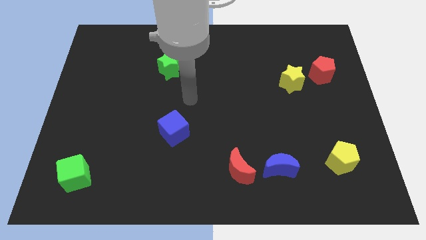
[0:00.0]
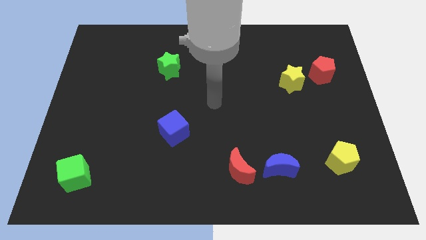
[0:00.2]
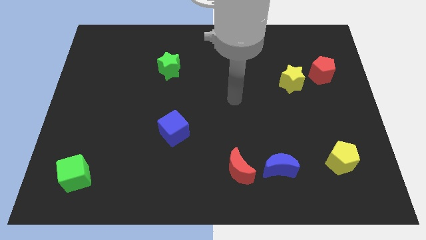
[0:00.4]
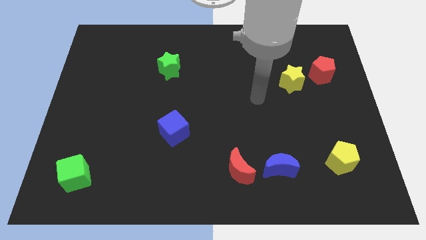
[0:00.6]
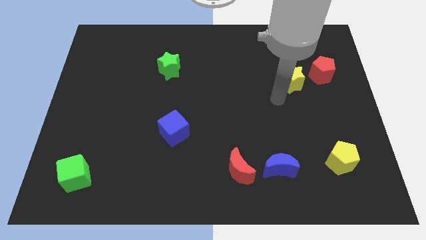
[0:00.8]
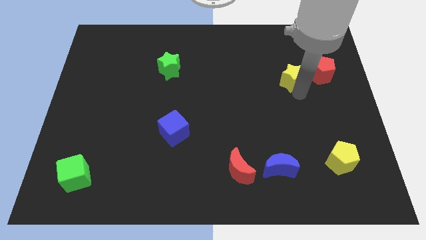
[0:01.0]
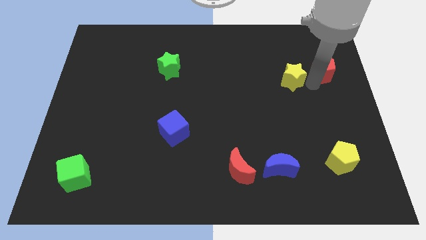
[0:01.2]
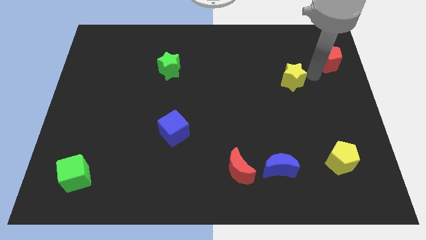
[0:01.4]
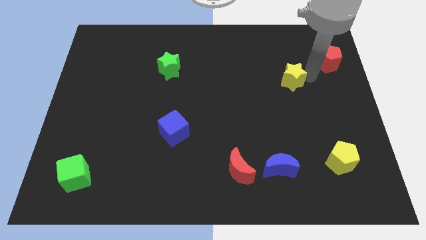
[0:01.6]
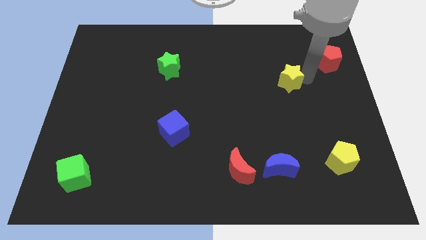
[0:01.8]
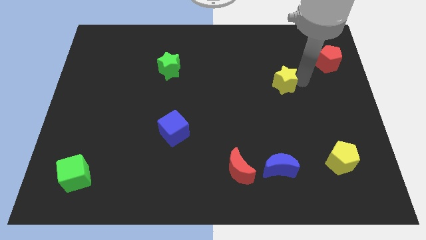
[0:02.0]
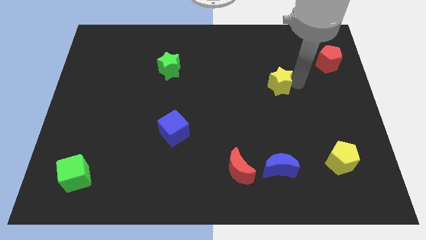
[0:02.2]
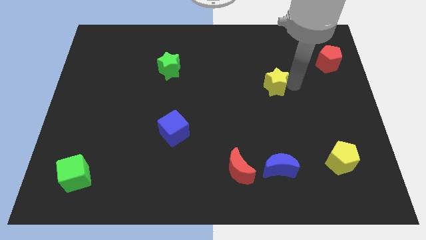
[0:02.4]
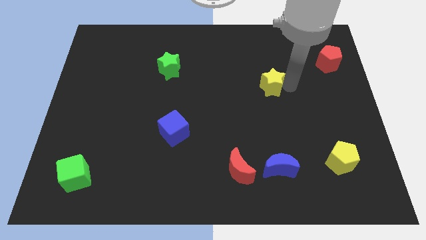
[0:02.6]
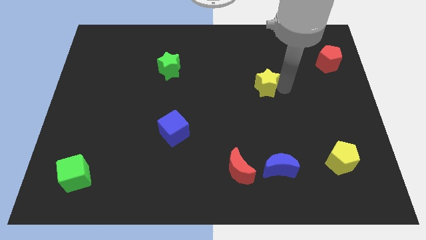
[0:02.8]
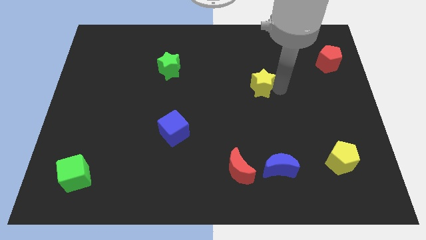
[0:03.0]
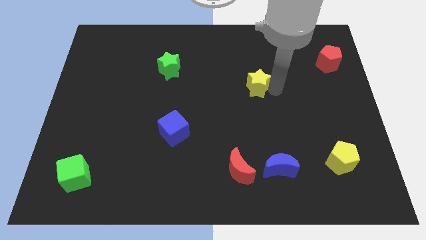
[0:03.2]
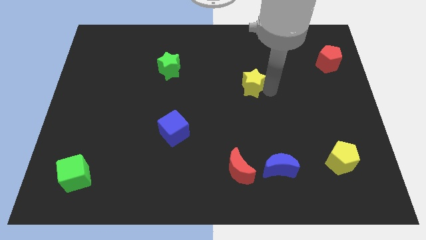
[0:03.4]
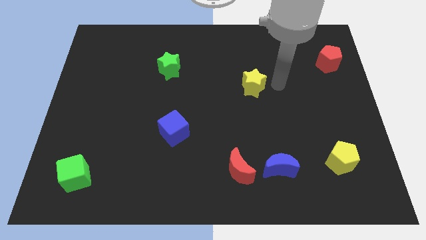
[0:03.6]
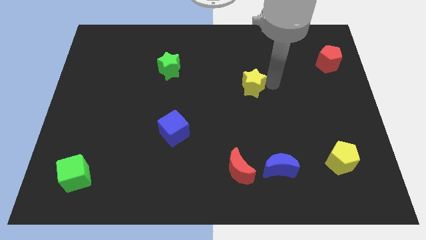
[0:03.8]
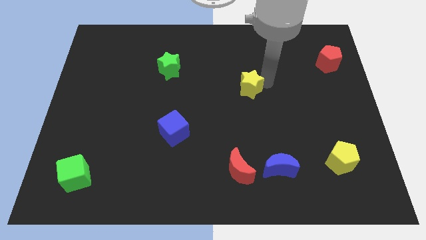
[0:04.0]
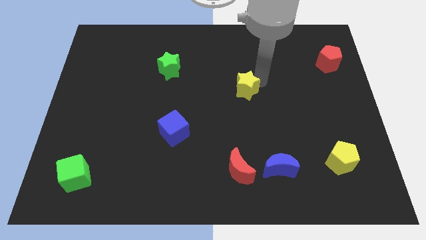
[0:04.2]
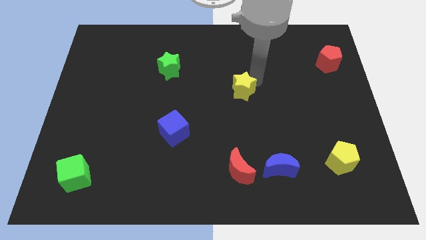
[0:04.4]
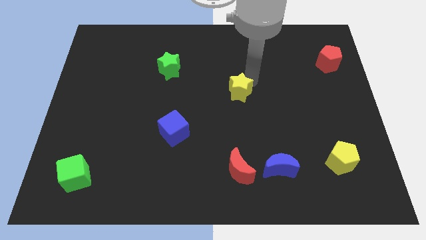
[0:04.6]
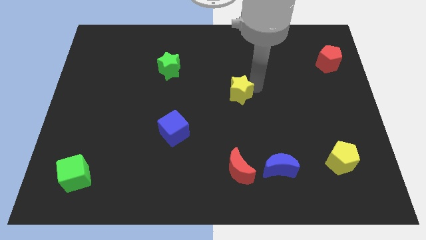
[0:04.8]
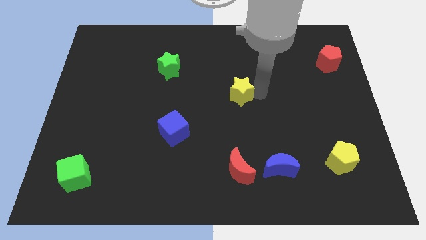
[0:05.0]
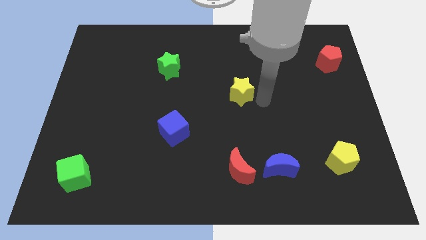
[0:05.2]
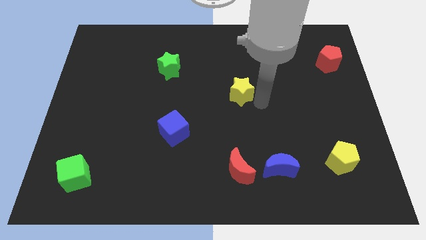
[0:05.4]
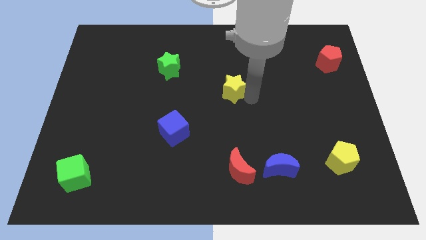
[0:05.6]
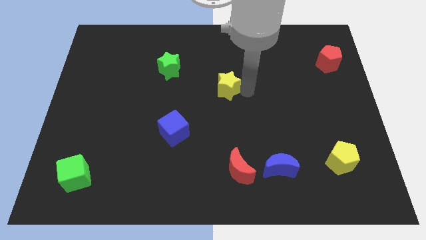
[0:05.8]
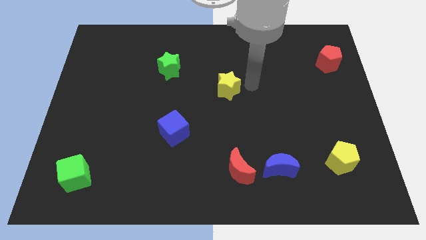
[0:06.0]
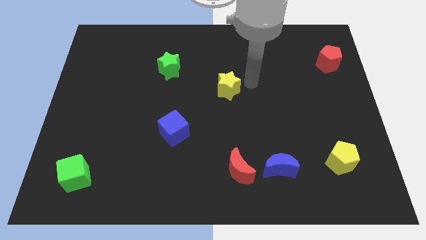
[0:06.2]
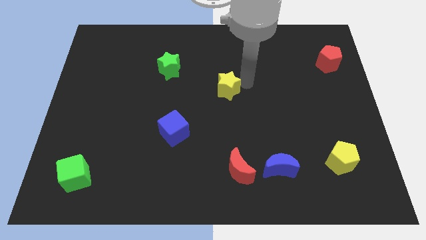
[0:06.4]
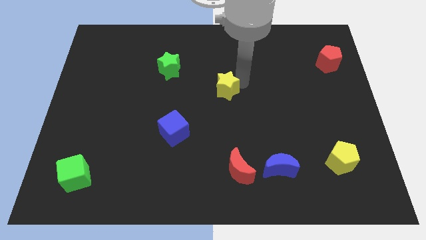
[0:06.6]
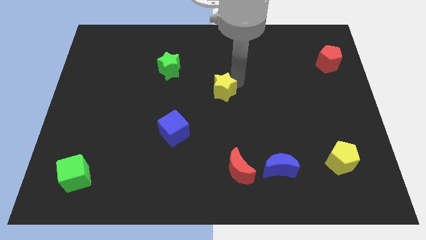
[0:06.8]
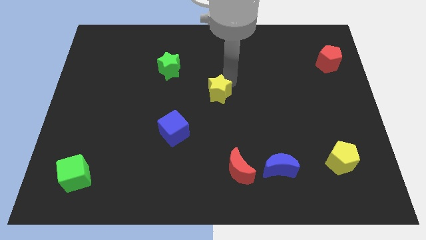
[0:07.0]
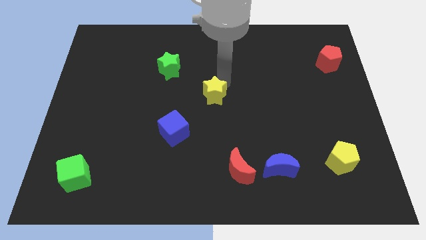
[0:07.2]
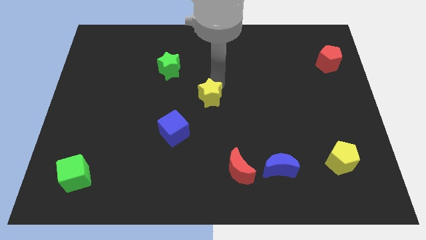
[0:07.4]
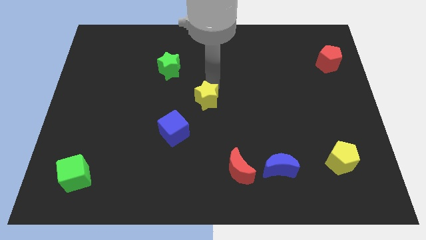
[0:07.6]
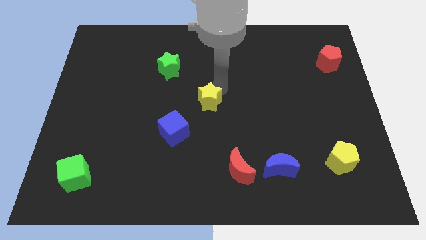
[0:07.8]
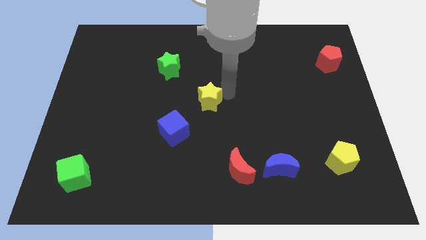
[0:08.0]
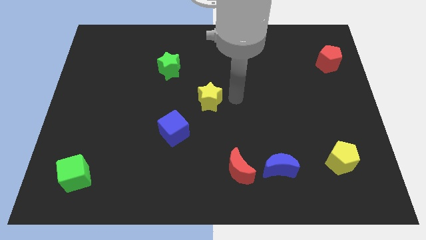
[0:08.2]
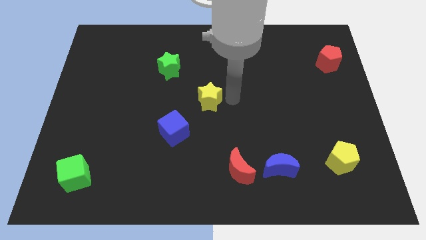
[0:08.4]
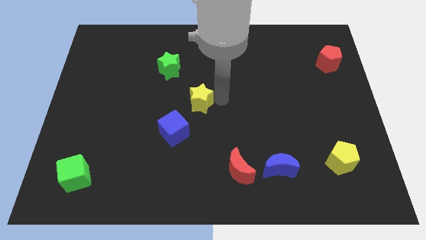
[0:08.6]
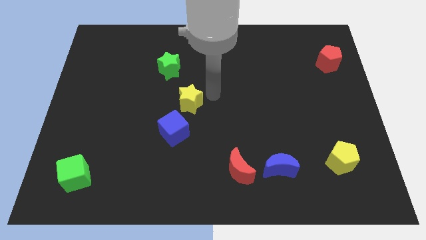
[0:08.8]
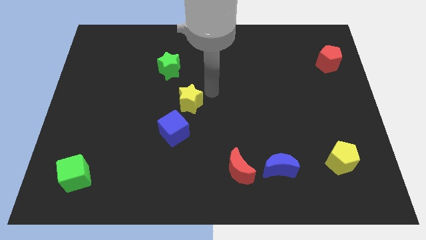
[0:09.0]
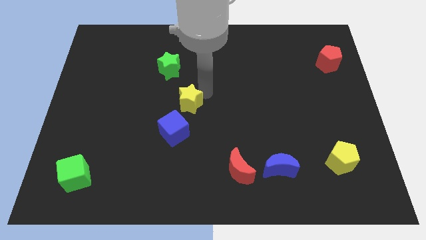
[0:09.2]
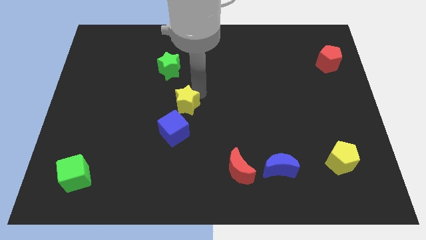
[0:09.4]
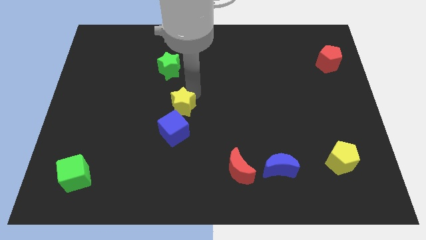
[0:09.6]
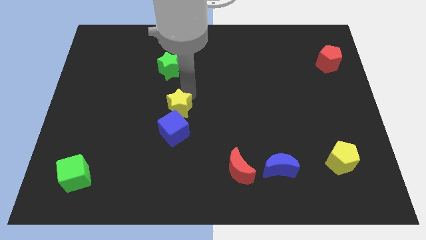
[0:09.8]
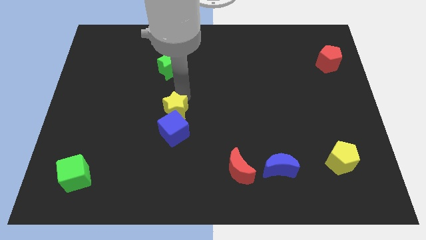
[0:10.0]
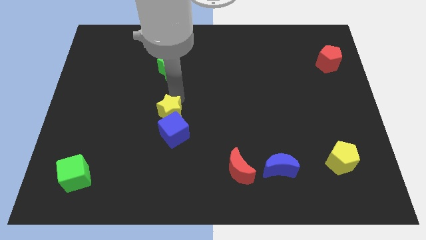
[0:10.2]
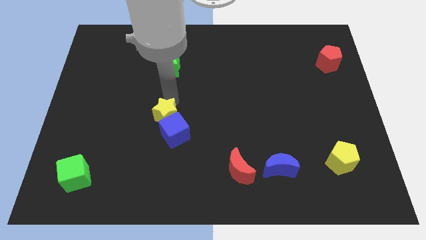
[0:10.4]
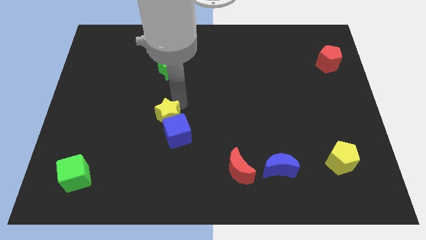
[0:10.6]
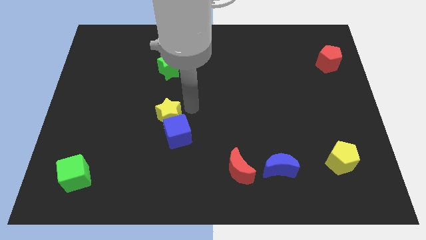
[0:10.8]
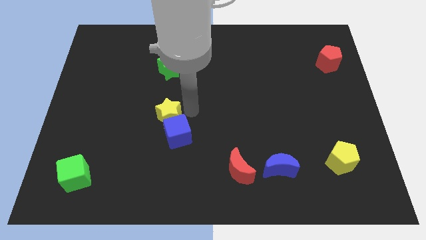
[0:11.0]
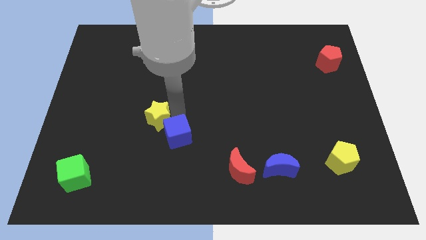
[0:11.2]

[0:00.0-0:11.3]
push the yellow star left of the blue cube
